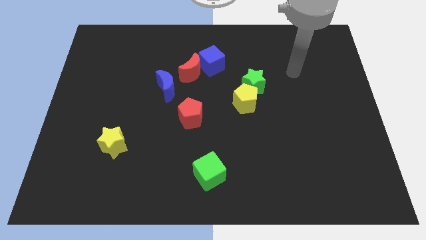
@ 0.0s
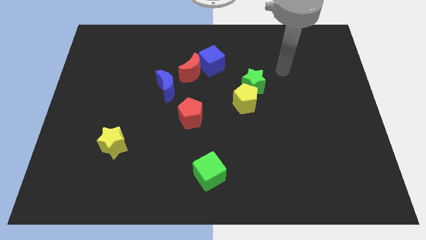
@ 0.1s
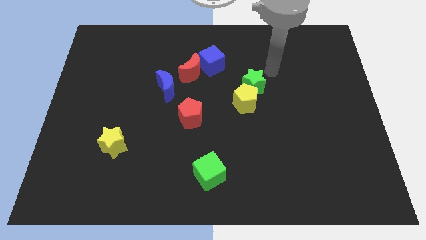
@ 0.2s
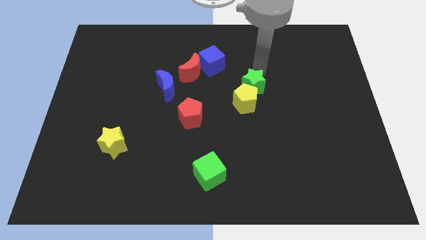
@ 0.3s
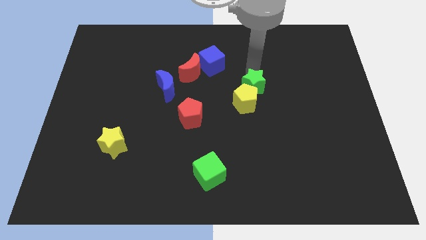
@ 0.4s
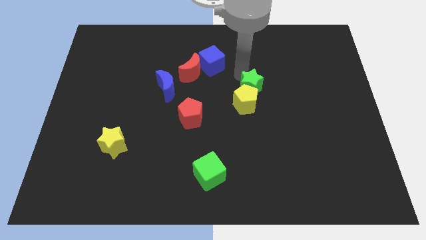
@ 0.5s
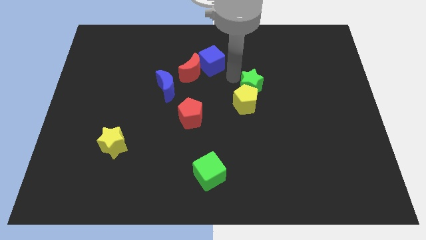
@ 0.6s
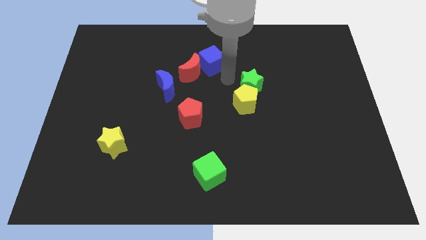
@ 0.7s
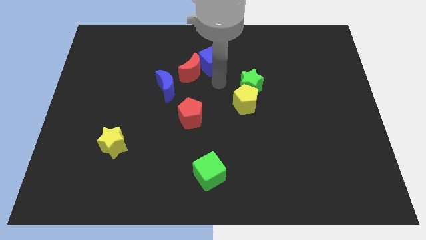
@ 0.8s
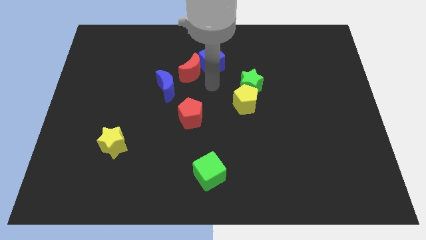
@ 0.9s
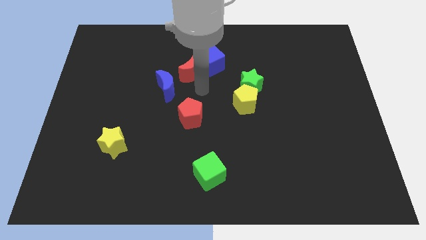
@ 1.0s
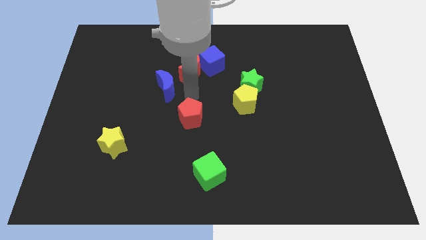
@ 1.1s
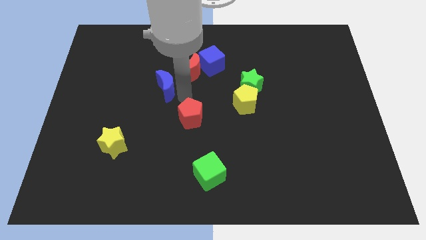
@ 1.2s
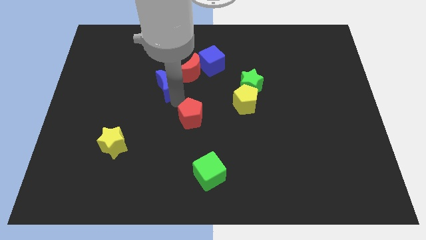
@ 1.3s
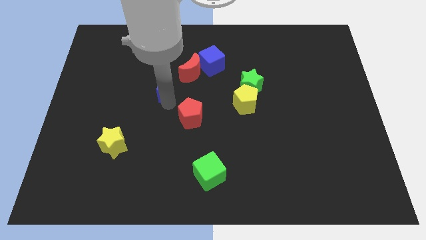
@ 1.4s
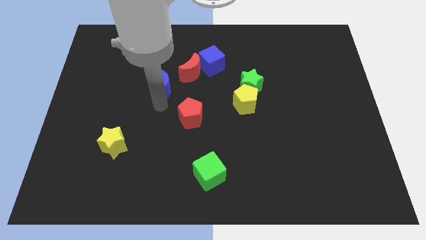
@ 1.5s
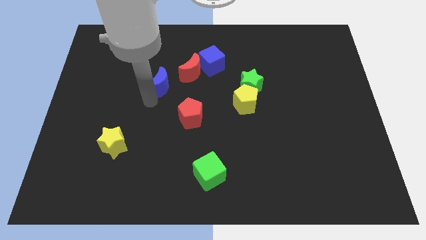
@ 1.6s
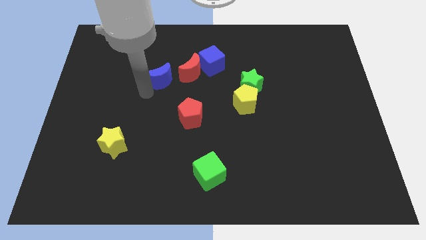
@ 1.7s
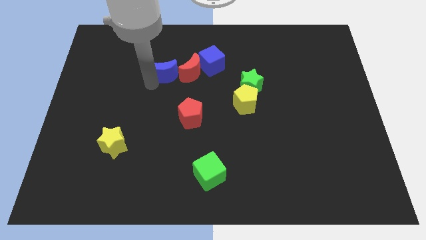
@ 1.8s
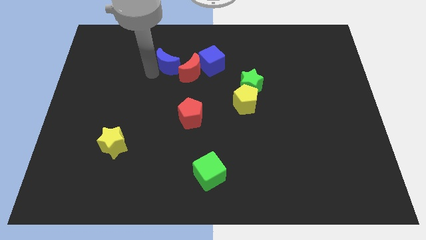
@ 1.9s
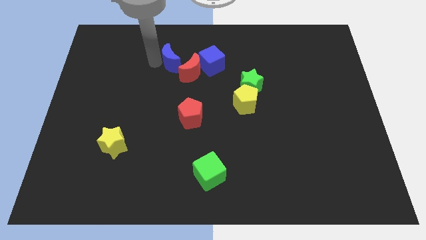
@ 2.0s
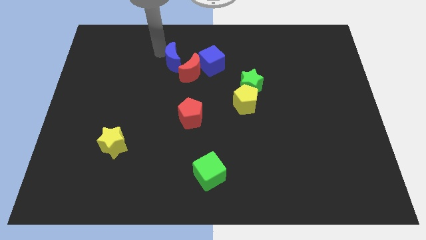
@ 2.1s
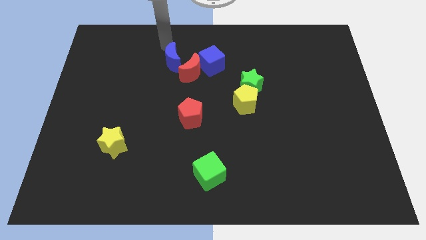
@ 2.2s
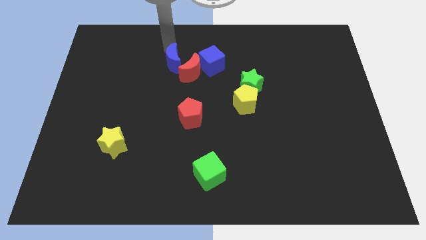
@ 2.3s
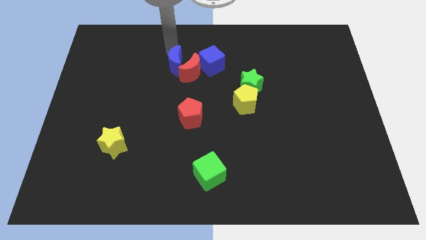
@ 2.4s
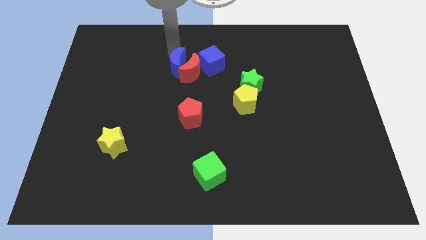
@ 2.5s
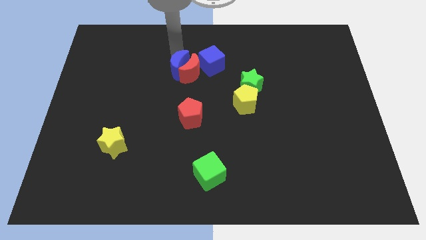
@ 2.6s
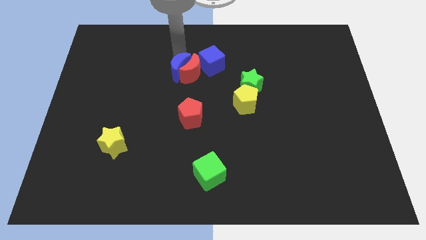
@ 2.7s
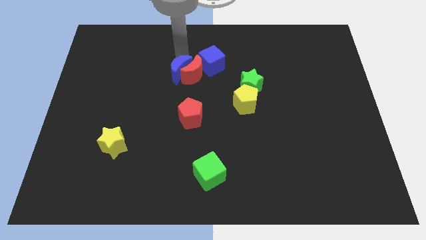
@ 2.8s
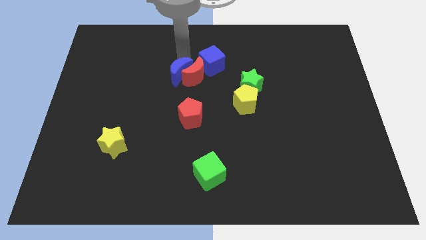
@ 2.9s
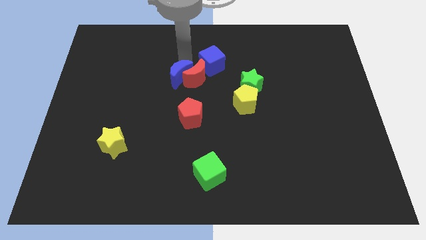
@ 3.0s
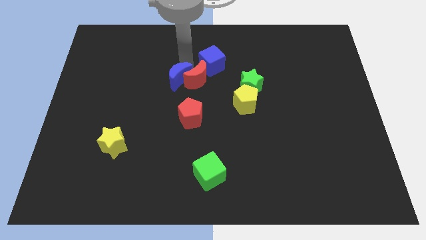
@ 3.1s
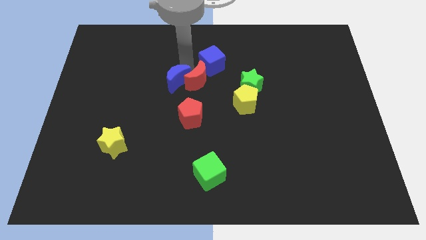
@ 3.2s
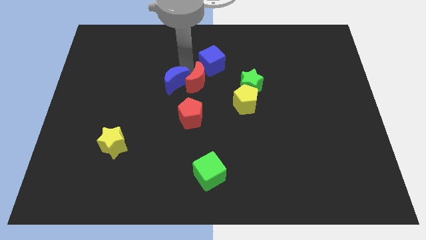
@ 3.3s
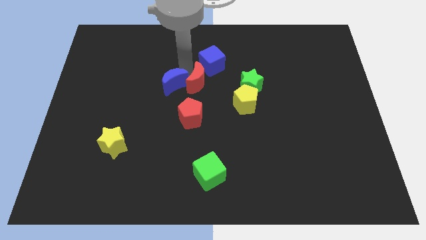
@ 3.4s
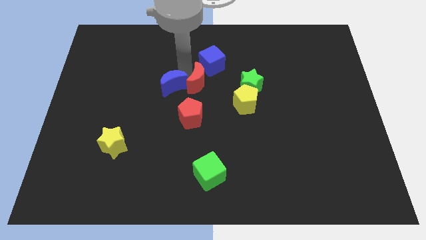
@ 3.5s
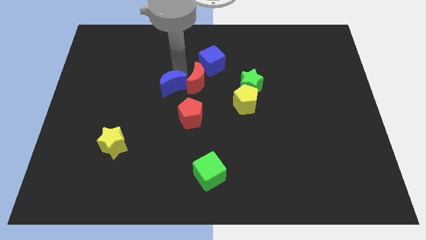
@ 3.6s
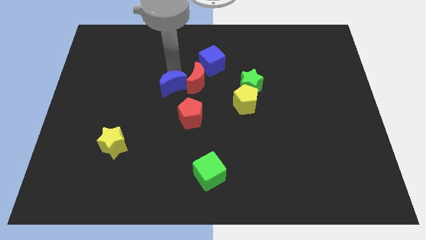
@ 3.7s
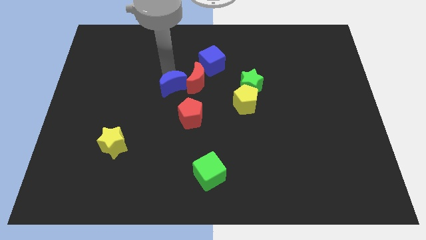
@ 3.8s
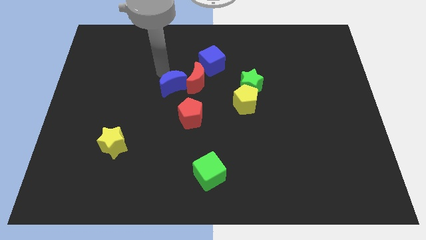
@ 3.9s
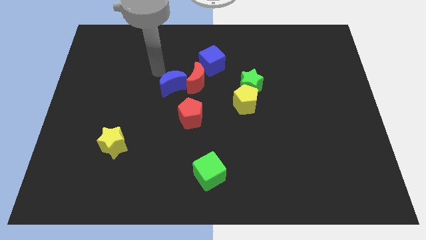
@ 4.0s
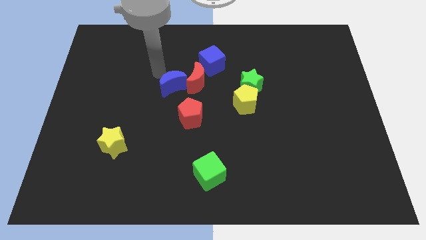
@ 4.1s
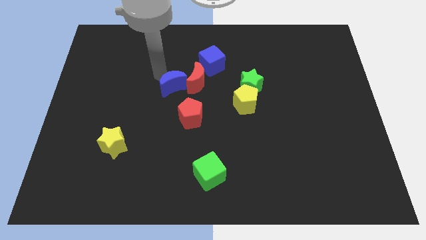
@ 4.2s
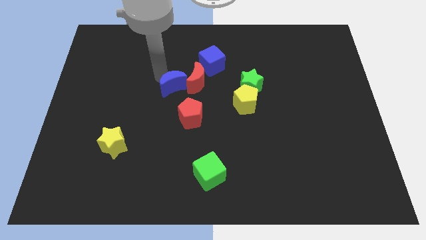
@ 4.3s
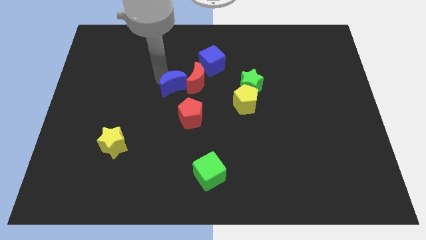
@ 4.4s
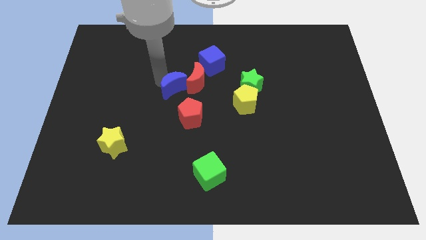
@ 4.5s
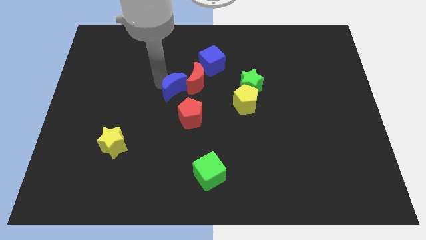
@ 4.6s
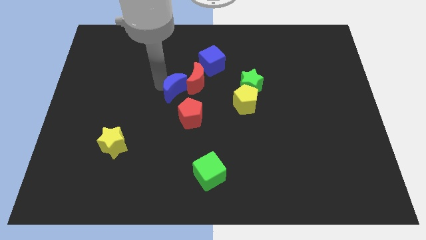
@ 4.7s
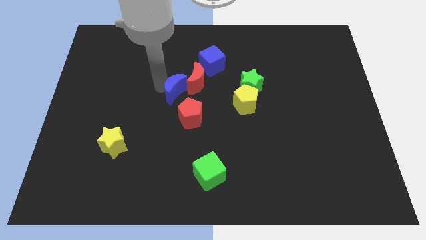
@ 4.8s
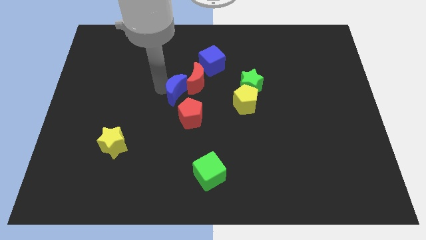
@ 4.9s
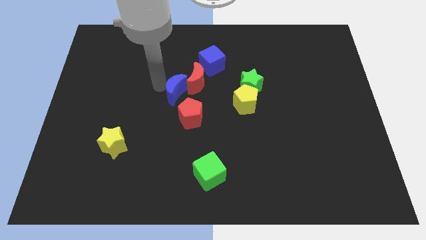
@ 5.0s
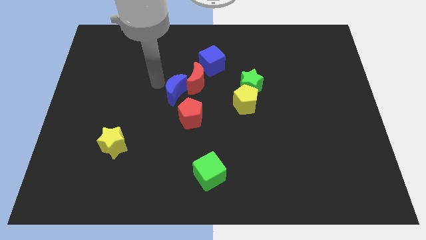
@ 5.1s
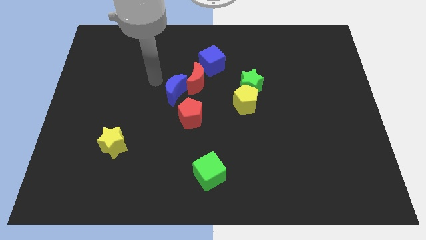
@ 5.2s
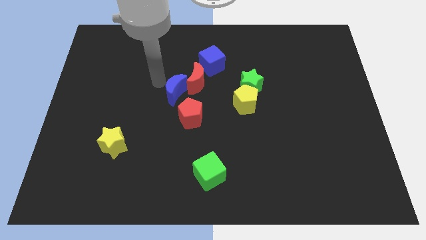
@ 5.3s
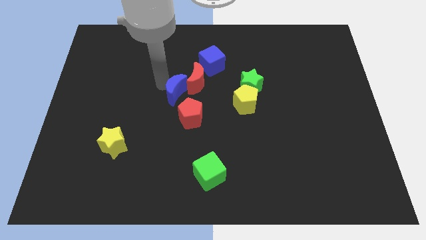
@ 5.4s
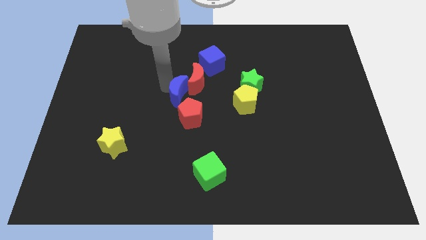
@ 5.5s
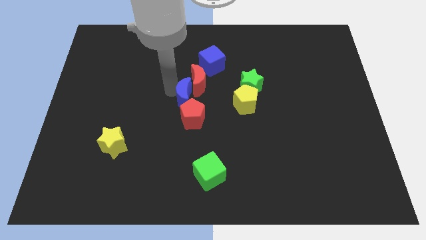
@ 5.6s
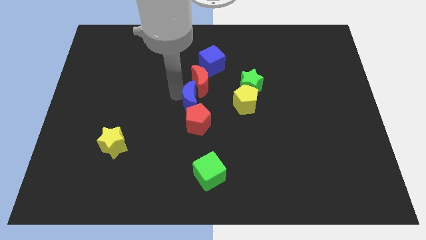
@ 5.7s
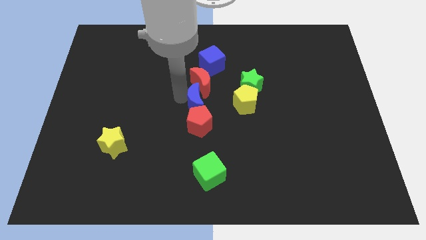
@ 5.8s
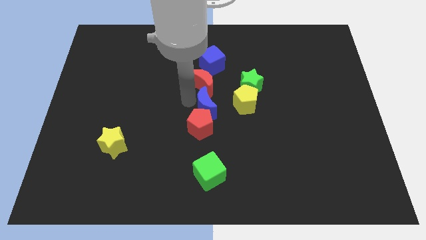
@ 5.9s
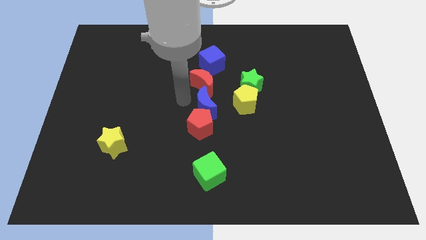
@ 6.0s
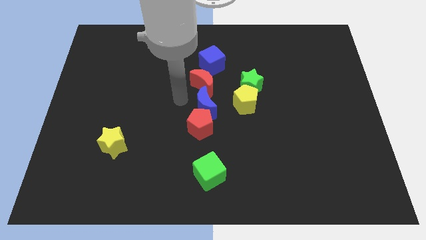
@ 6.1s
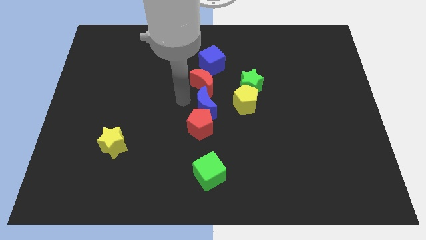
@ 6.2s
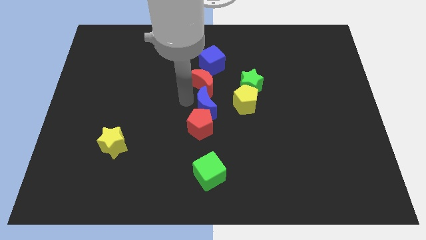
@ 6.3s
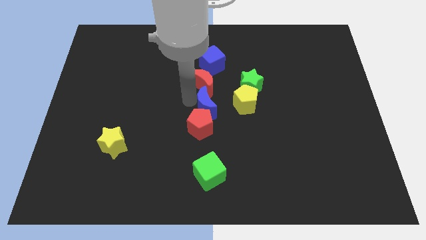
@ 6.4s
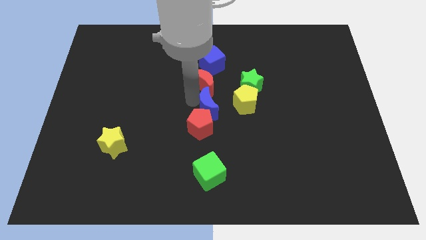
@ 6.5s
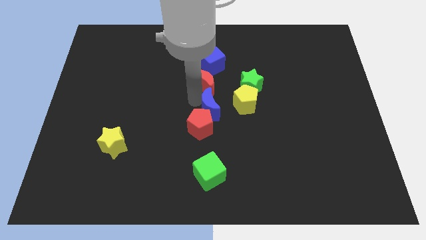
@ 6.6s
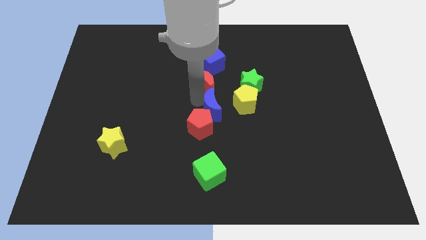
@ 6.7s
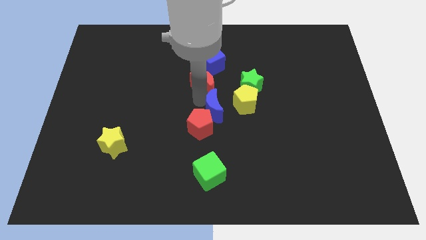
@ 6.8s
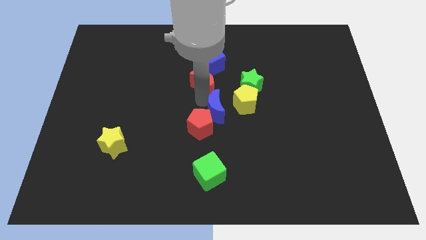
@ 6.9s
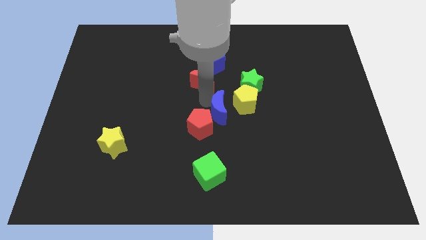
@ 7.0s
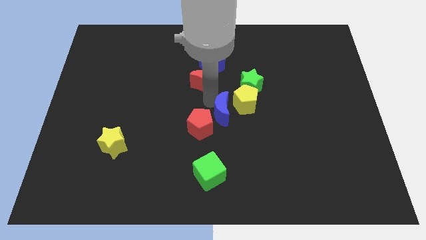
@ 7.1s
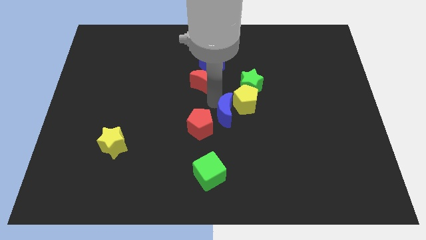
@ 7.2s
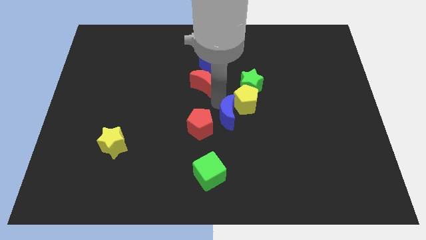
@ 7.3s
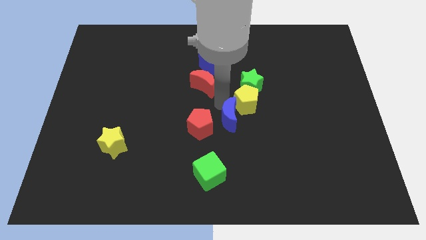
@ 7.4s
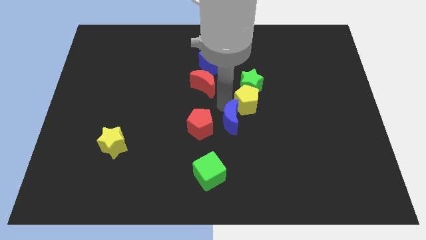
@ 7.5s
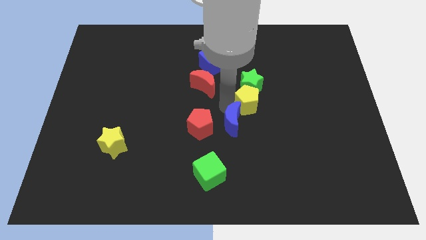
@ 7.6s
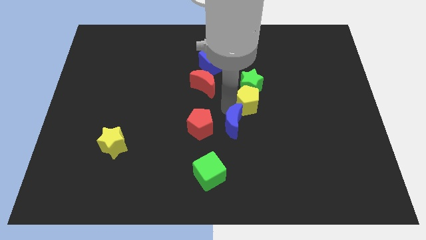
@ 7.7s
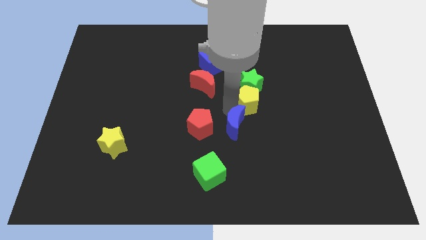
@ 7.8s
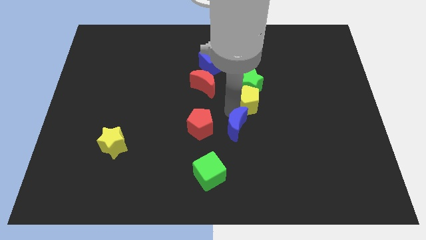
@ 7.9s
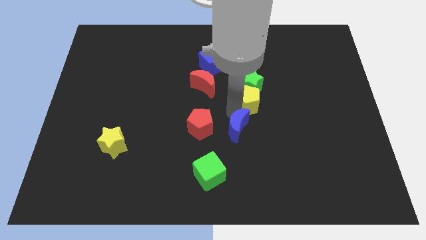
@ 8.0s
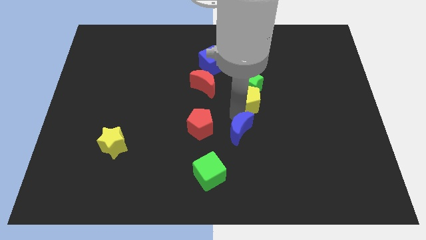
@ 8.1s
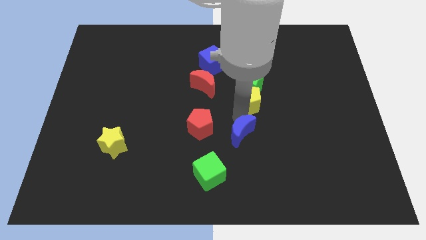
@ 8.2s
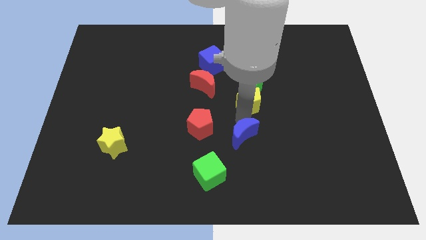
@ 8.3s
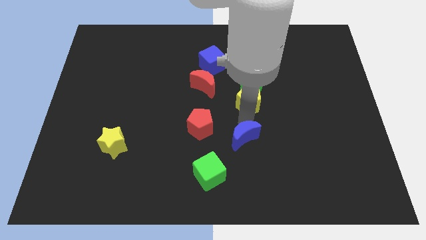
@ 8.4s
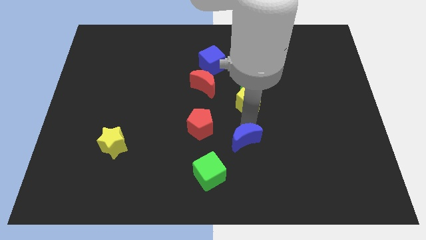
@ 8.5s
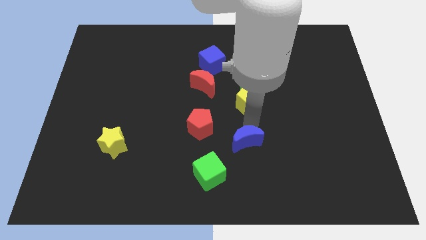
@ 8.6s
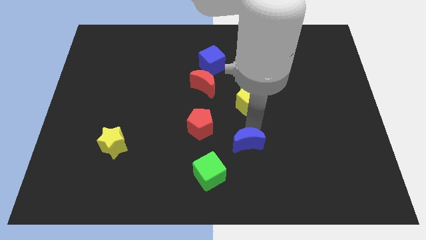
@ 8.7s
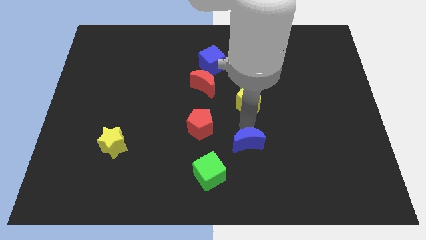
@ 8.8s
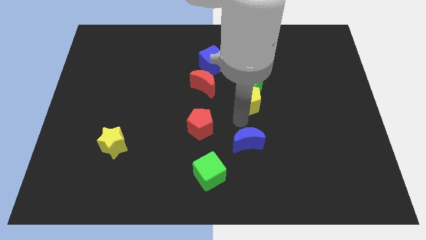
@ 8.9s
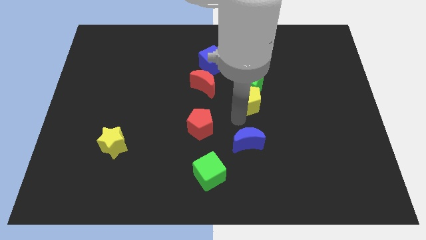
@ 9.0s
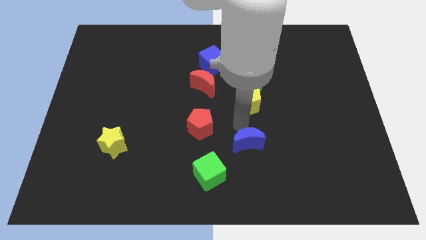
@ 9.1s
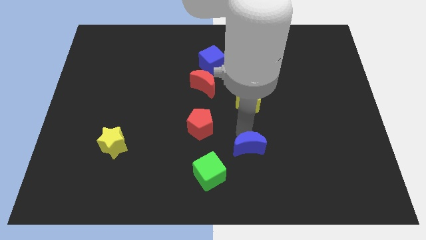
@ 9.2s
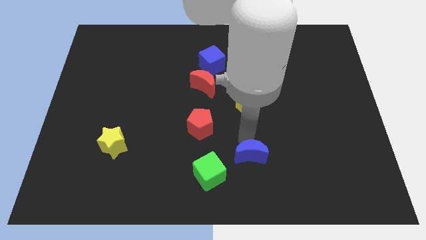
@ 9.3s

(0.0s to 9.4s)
put the blue moon right of the green cube
